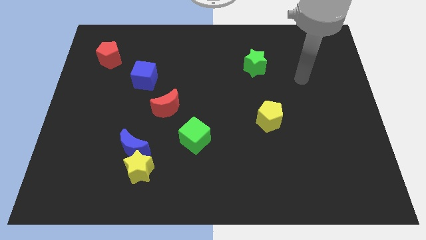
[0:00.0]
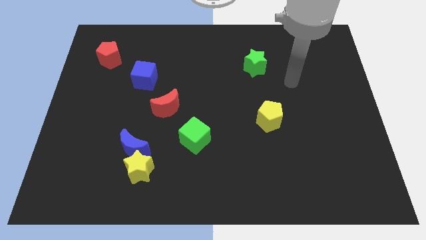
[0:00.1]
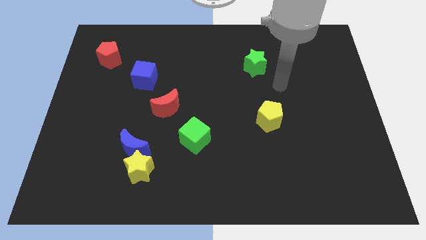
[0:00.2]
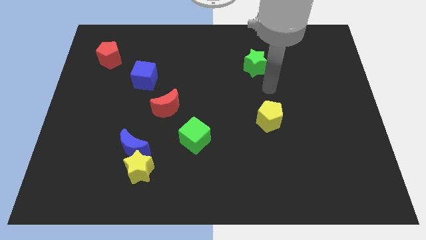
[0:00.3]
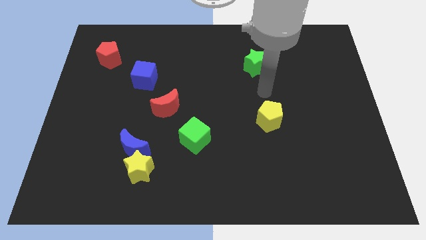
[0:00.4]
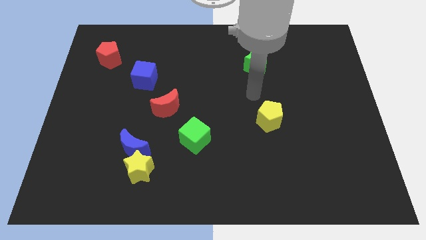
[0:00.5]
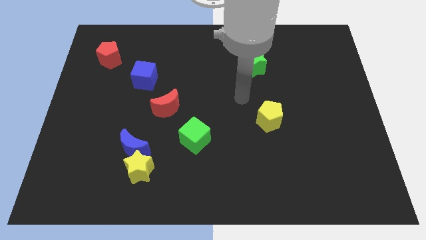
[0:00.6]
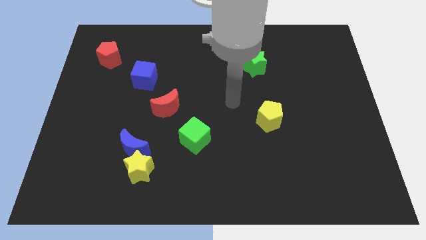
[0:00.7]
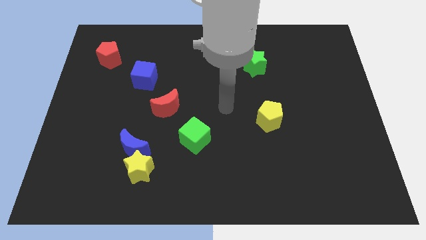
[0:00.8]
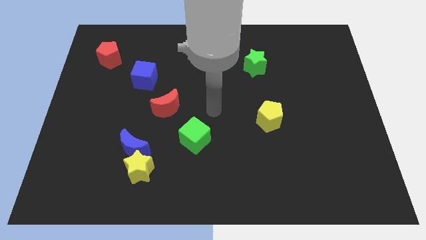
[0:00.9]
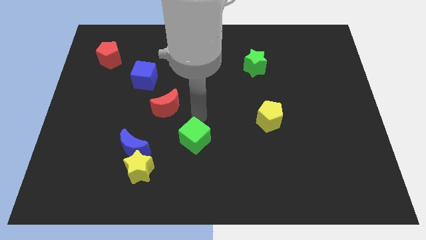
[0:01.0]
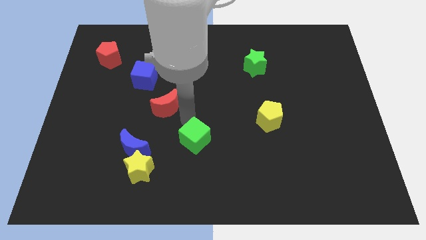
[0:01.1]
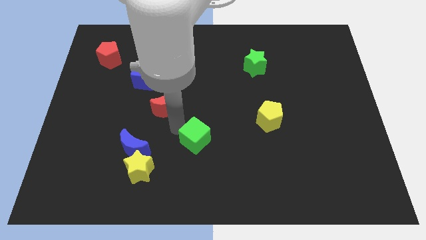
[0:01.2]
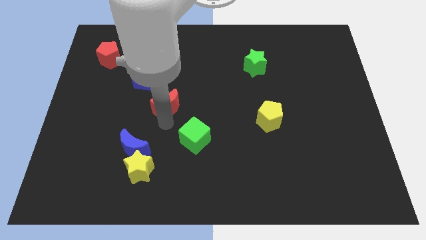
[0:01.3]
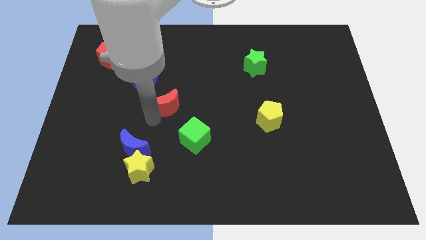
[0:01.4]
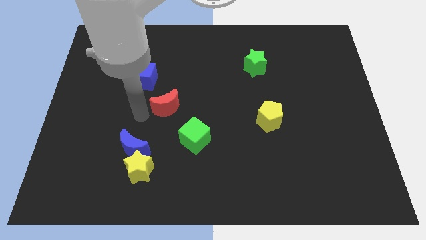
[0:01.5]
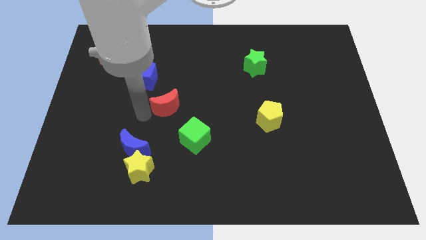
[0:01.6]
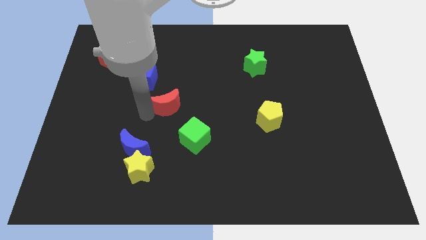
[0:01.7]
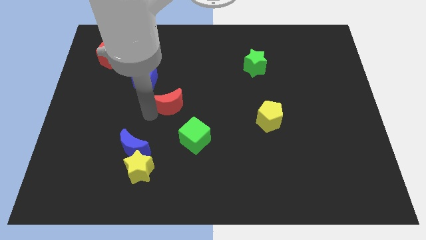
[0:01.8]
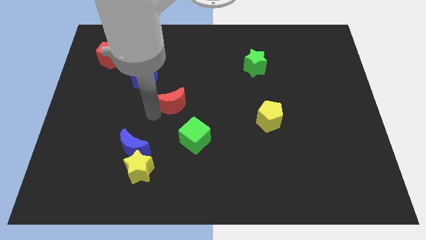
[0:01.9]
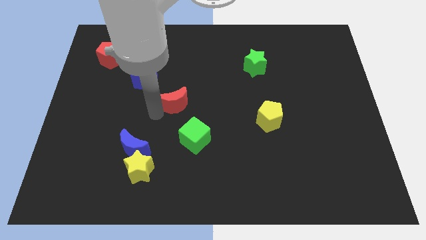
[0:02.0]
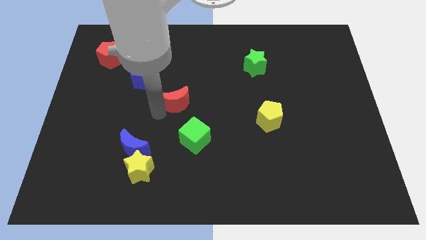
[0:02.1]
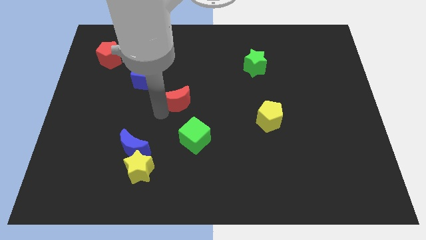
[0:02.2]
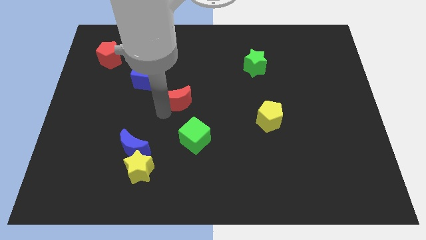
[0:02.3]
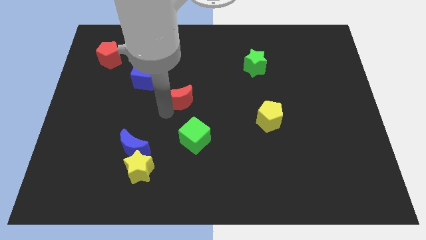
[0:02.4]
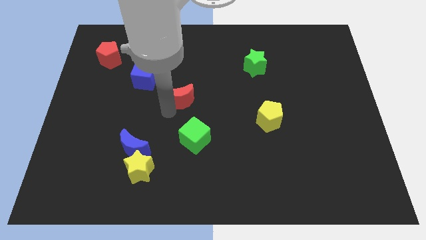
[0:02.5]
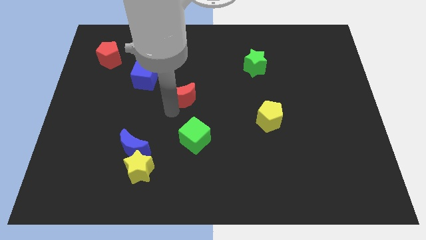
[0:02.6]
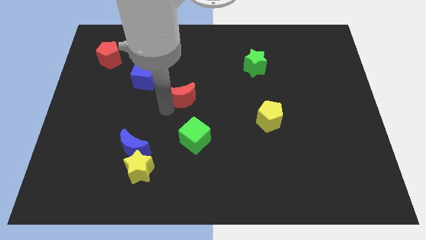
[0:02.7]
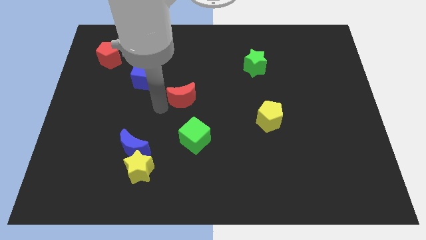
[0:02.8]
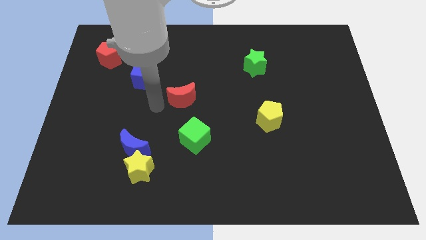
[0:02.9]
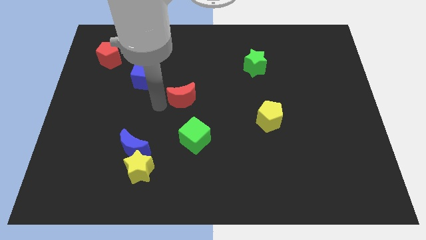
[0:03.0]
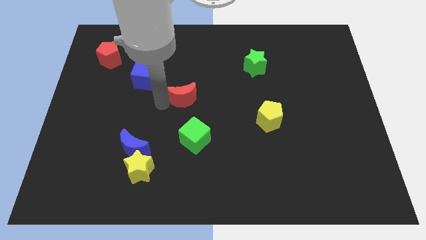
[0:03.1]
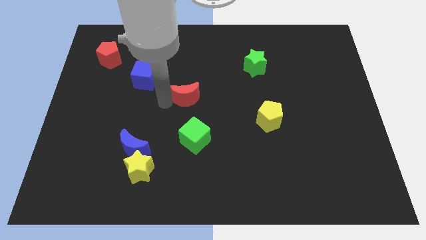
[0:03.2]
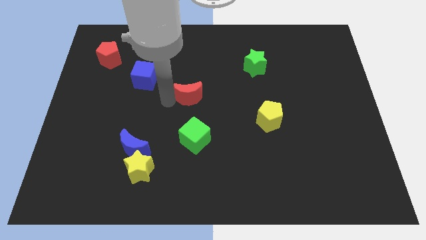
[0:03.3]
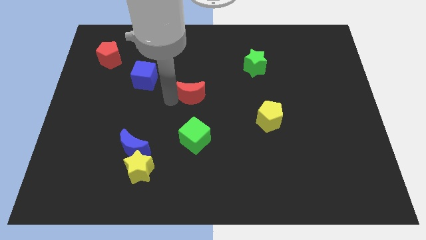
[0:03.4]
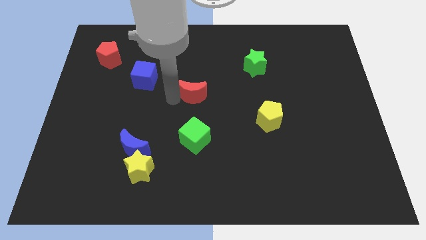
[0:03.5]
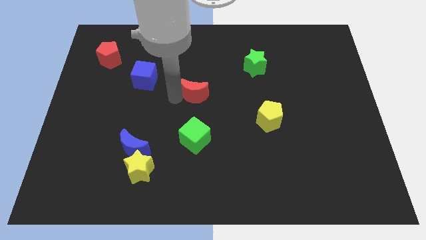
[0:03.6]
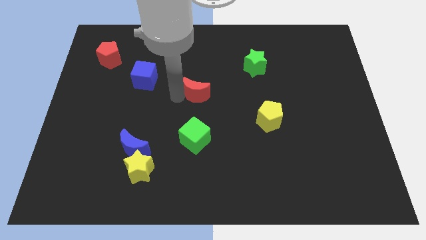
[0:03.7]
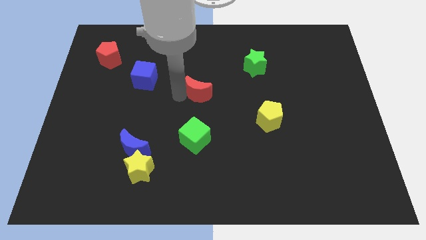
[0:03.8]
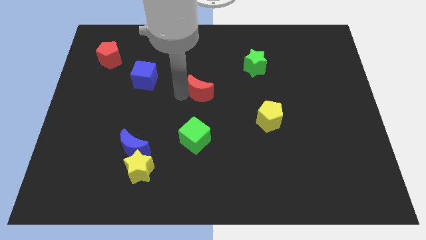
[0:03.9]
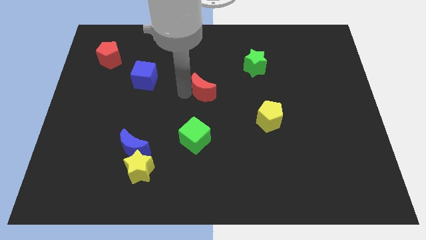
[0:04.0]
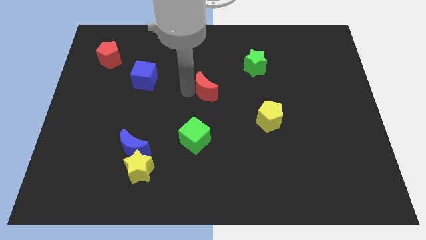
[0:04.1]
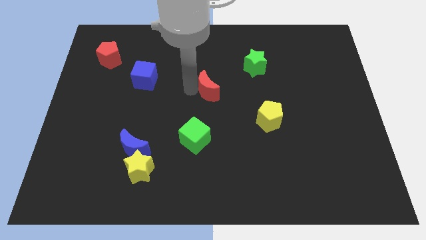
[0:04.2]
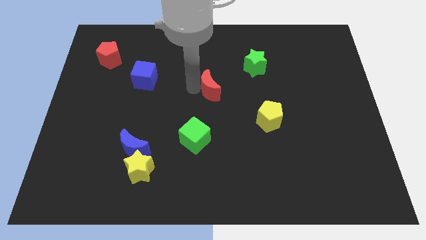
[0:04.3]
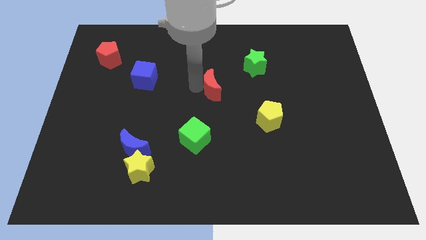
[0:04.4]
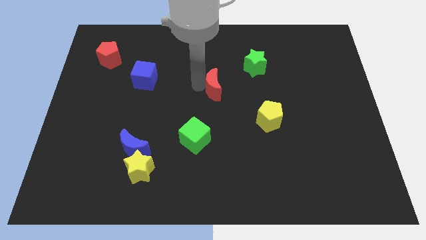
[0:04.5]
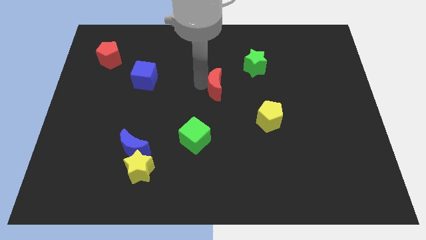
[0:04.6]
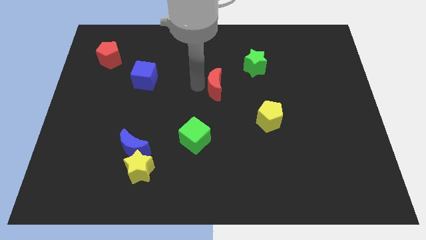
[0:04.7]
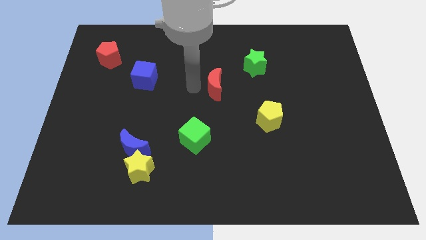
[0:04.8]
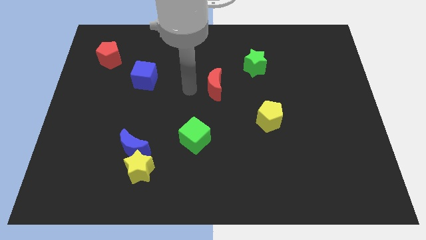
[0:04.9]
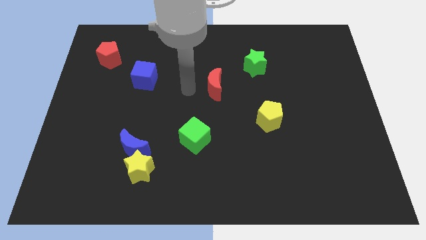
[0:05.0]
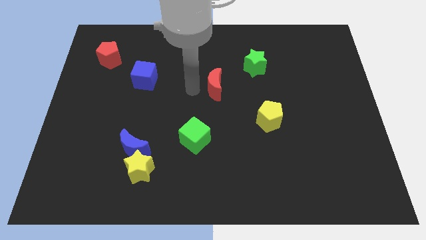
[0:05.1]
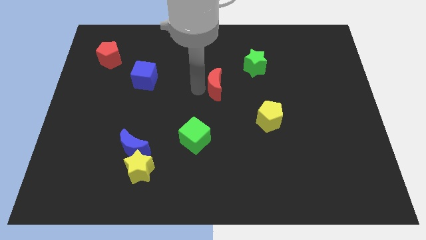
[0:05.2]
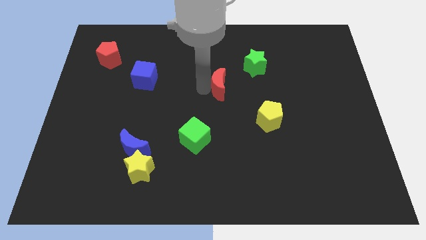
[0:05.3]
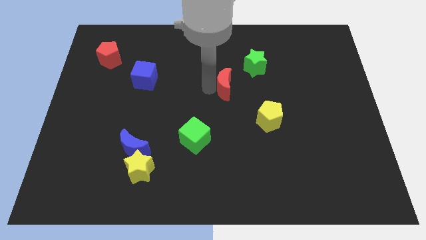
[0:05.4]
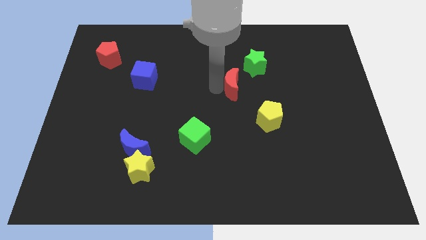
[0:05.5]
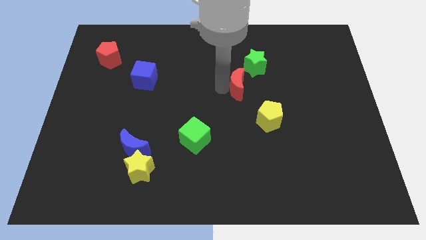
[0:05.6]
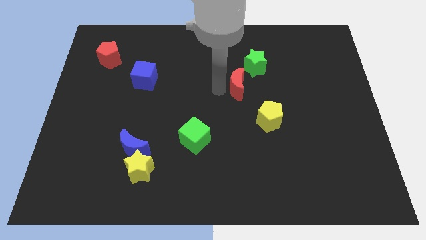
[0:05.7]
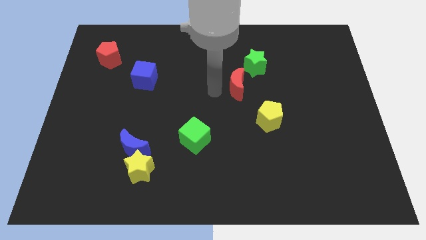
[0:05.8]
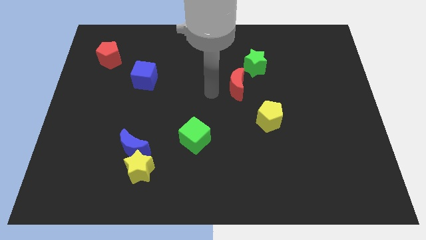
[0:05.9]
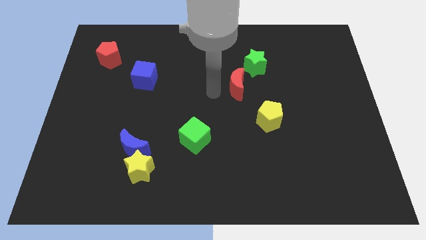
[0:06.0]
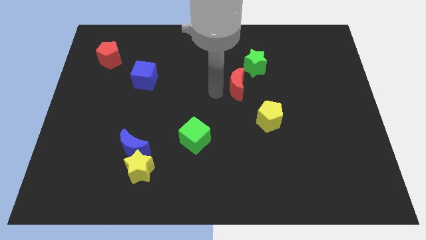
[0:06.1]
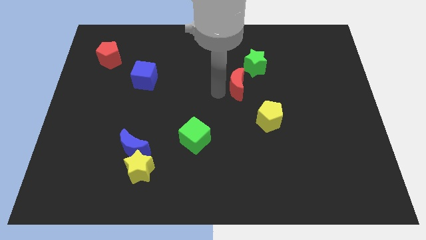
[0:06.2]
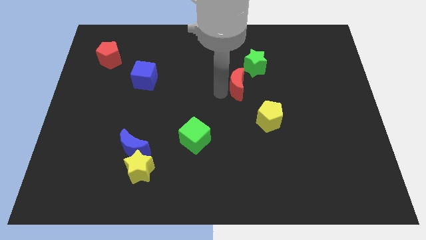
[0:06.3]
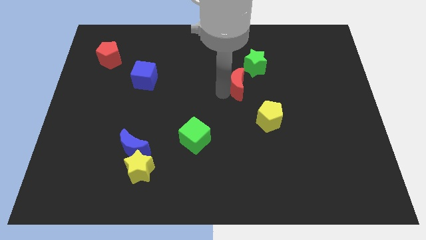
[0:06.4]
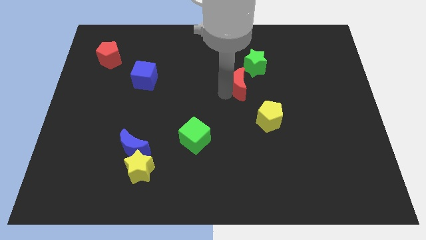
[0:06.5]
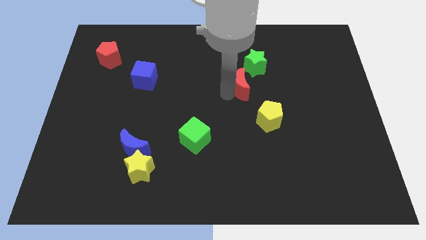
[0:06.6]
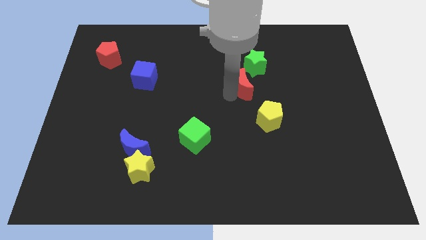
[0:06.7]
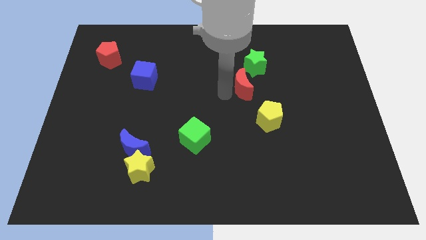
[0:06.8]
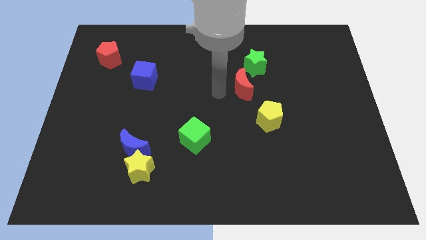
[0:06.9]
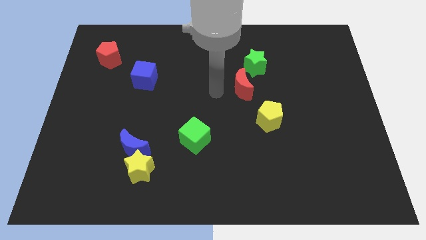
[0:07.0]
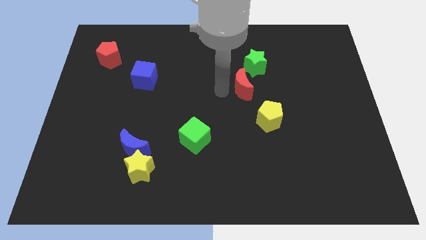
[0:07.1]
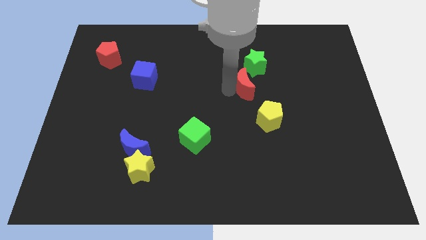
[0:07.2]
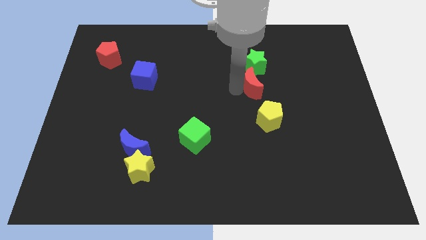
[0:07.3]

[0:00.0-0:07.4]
slide the red moon to the top of the yellow pentagon
